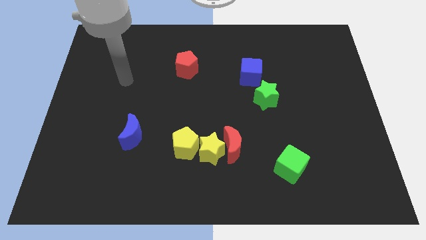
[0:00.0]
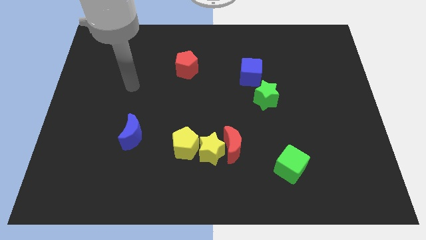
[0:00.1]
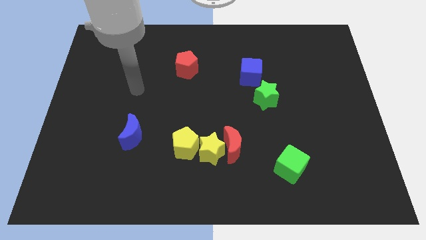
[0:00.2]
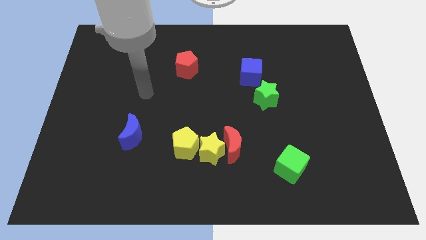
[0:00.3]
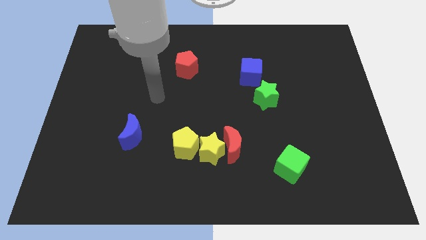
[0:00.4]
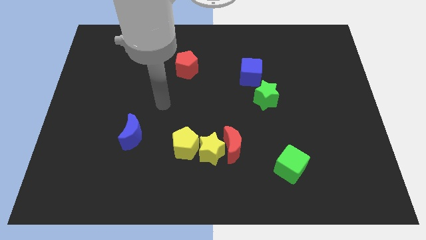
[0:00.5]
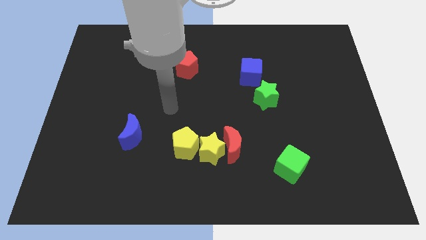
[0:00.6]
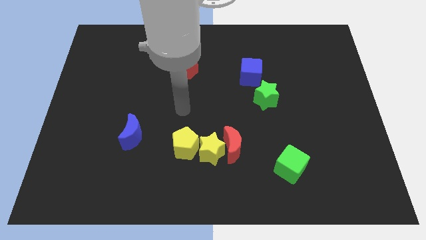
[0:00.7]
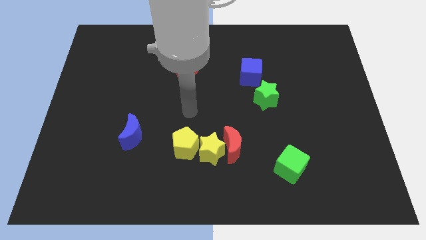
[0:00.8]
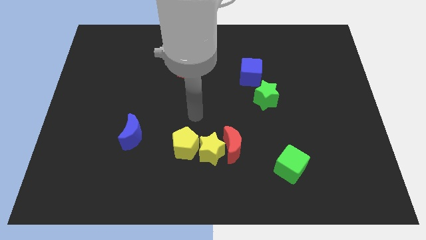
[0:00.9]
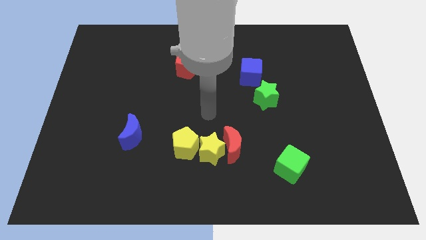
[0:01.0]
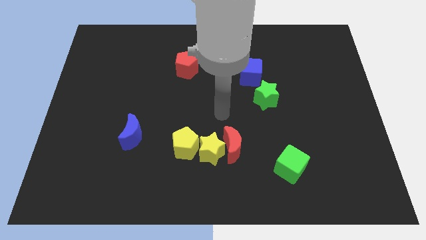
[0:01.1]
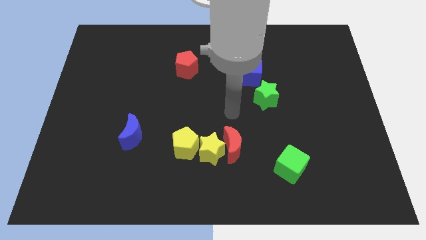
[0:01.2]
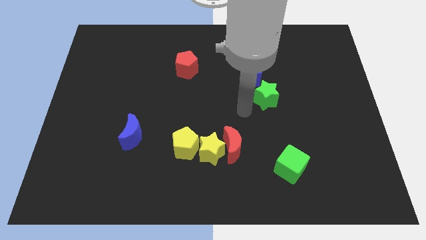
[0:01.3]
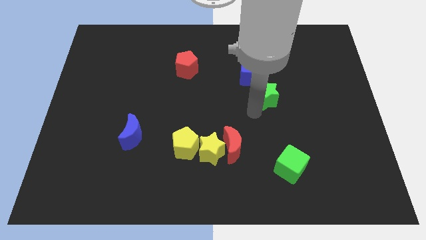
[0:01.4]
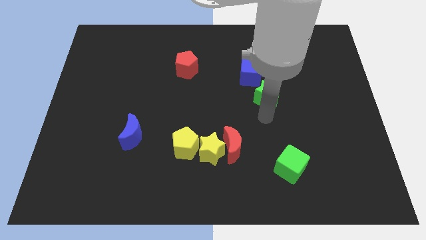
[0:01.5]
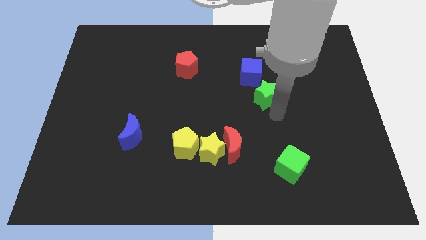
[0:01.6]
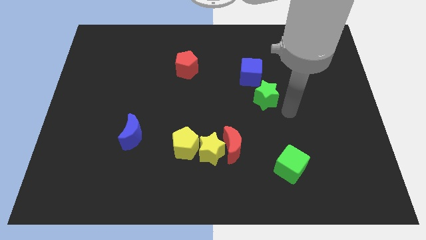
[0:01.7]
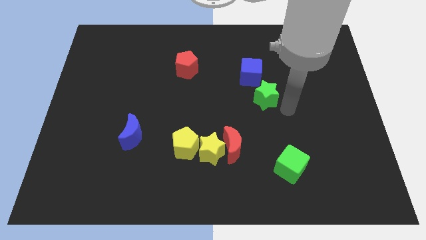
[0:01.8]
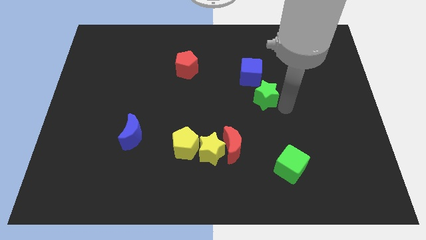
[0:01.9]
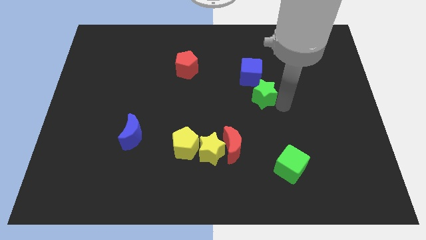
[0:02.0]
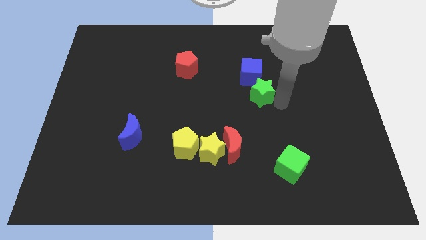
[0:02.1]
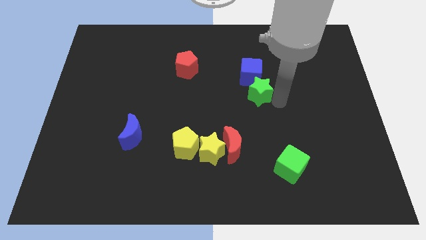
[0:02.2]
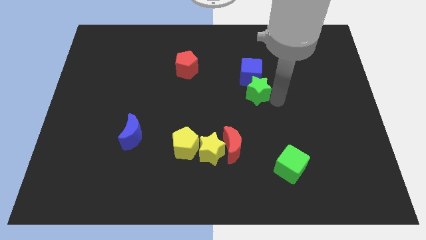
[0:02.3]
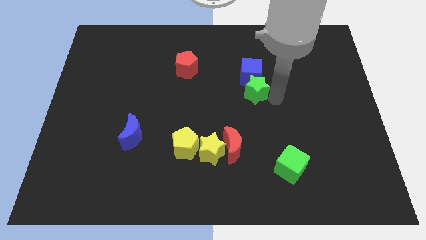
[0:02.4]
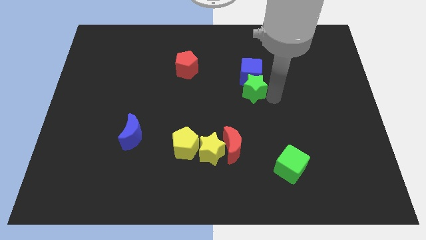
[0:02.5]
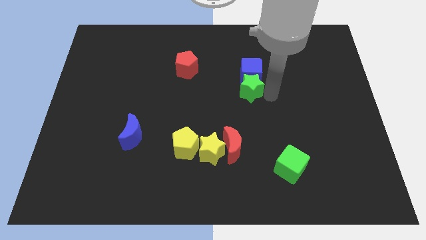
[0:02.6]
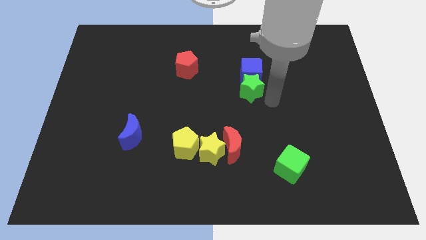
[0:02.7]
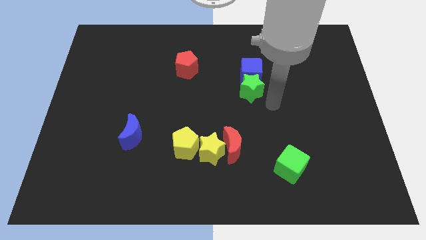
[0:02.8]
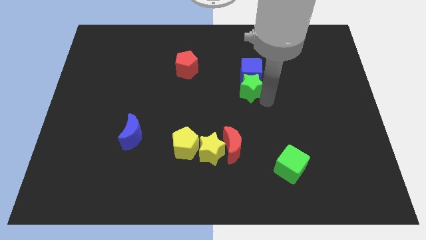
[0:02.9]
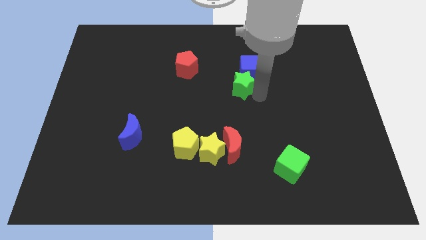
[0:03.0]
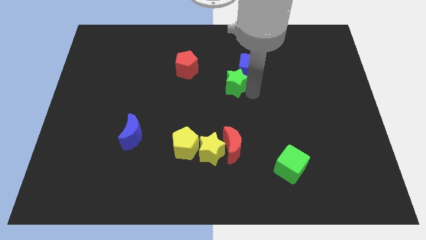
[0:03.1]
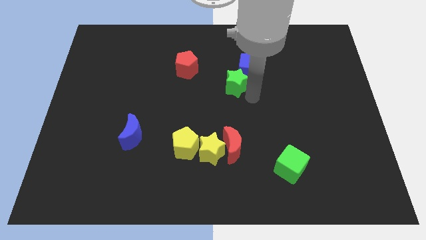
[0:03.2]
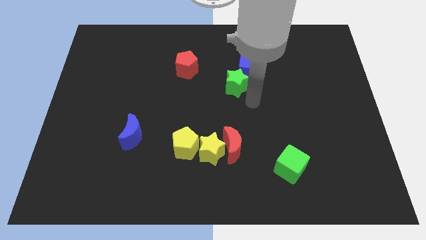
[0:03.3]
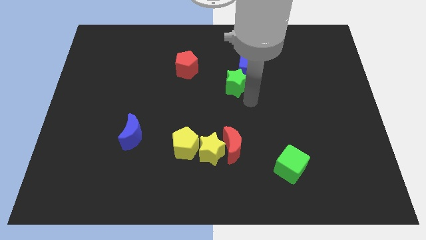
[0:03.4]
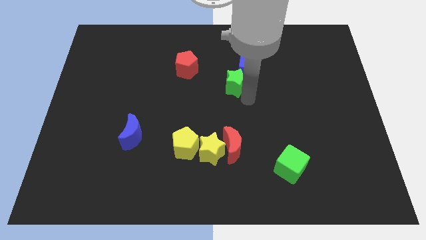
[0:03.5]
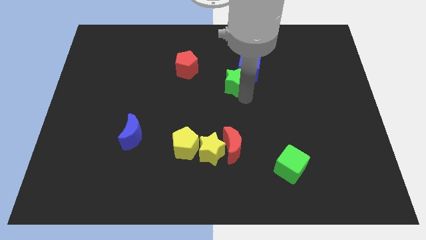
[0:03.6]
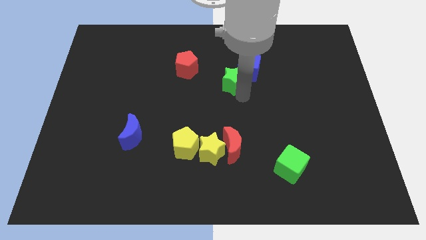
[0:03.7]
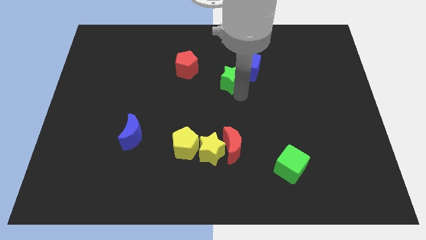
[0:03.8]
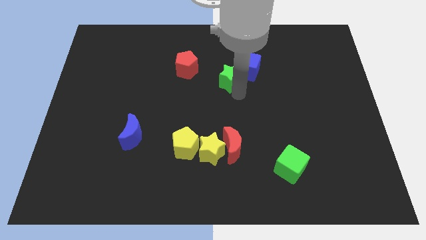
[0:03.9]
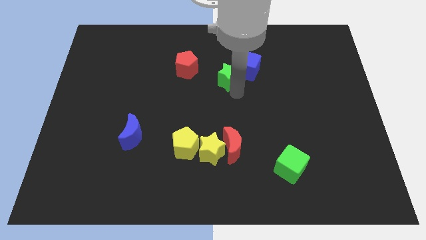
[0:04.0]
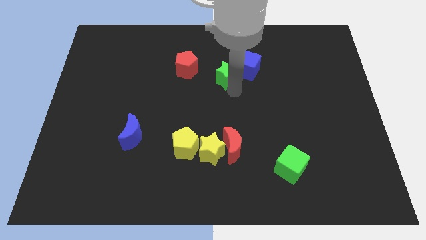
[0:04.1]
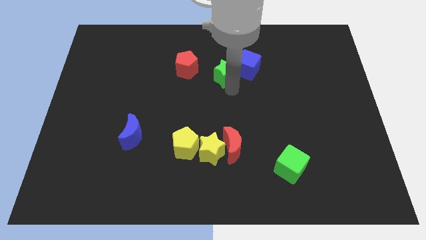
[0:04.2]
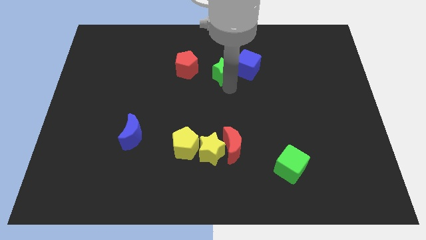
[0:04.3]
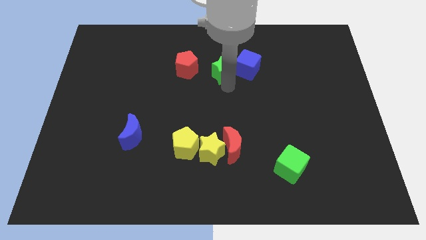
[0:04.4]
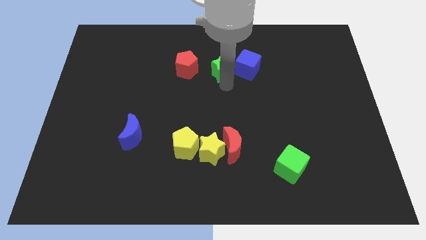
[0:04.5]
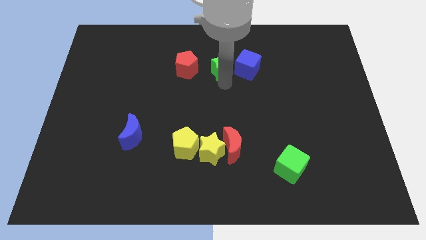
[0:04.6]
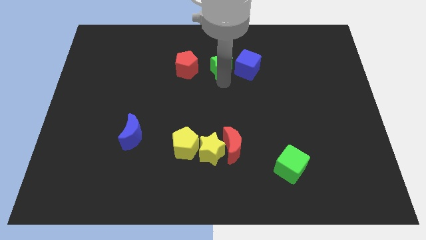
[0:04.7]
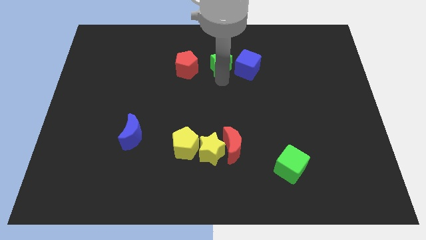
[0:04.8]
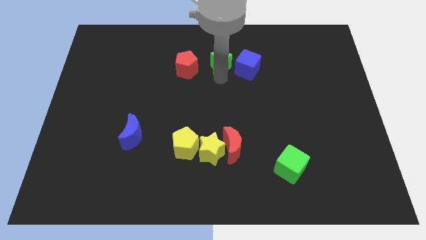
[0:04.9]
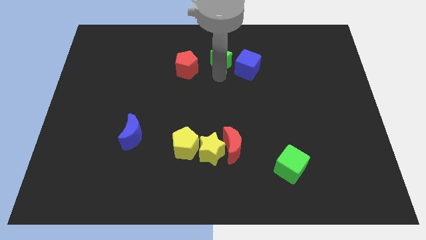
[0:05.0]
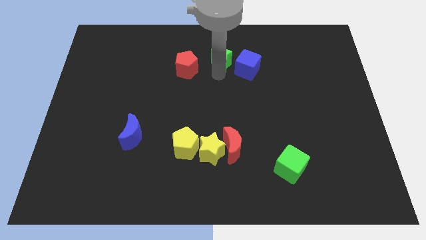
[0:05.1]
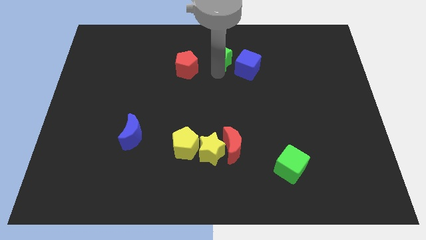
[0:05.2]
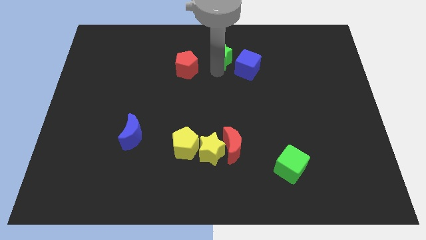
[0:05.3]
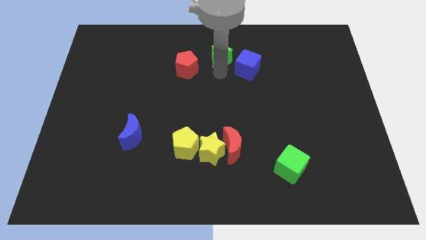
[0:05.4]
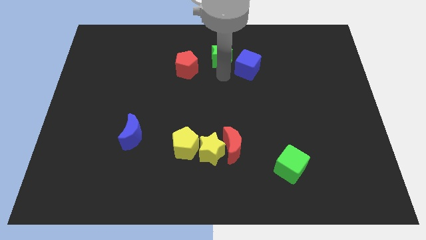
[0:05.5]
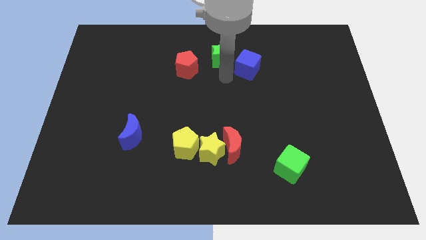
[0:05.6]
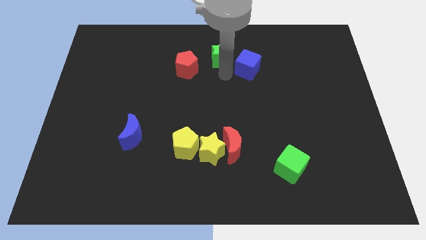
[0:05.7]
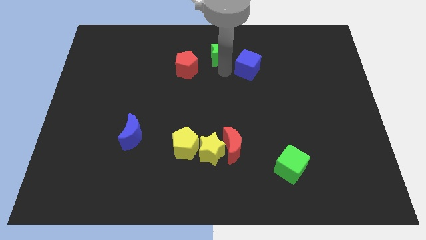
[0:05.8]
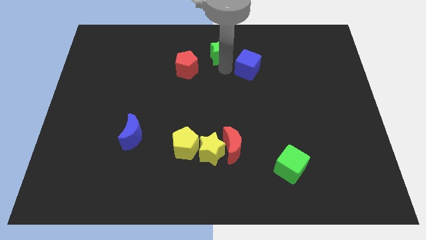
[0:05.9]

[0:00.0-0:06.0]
push the green star to the top
